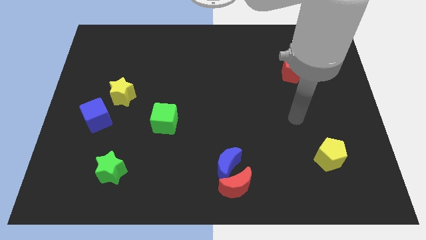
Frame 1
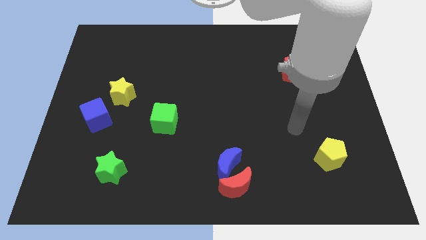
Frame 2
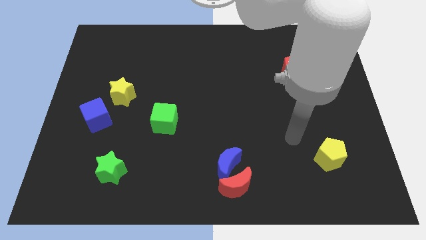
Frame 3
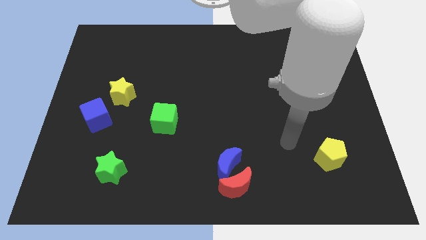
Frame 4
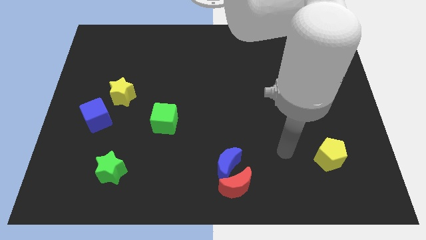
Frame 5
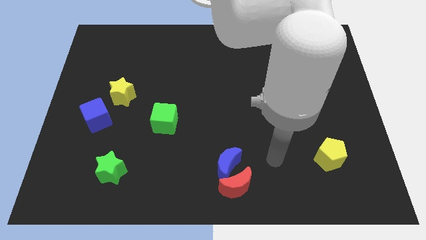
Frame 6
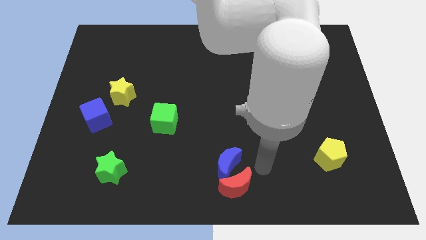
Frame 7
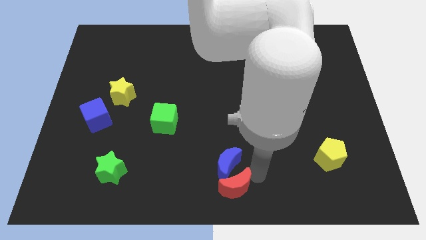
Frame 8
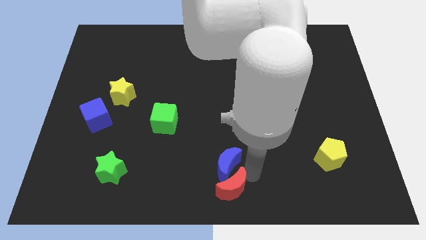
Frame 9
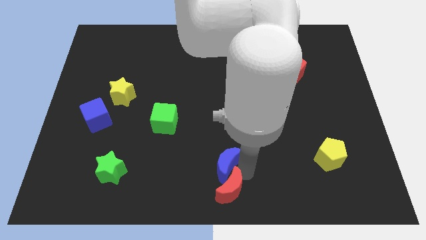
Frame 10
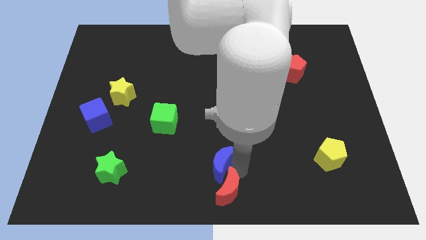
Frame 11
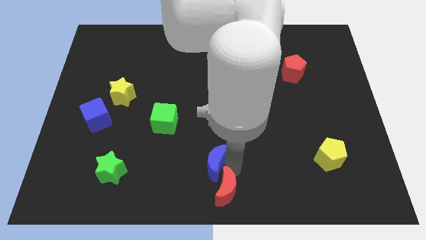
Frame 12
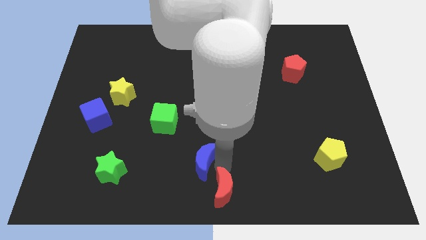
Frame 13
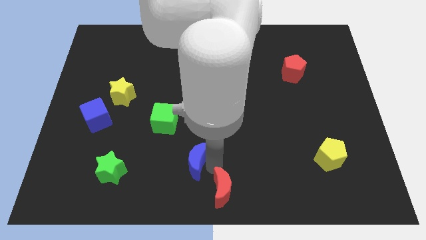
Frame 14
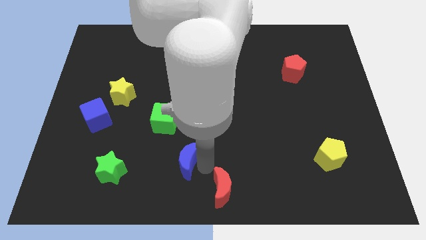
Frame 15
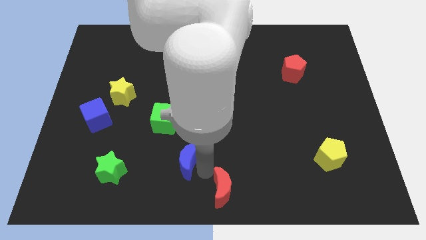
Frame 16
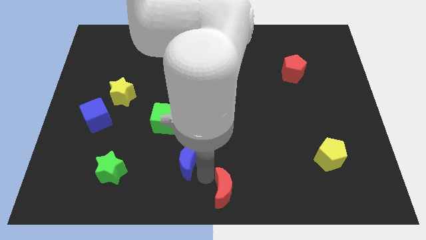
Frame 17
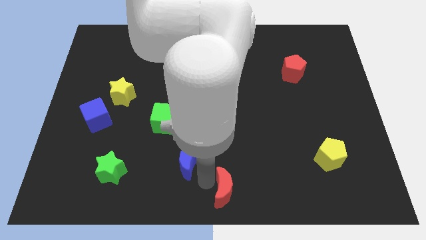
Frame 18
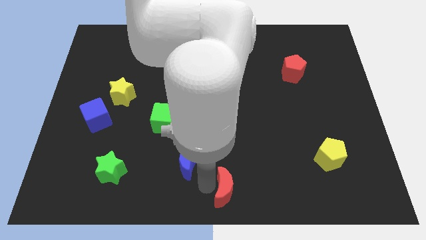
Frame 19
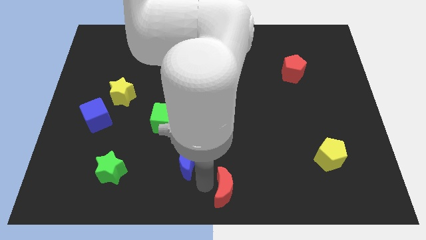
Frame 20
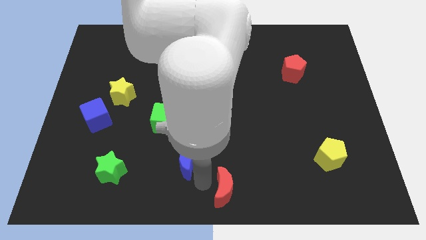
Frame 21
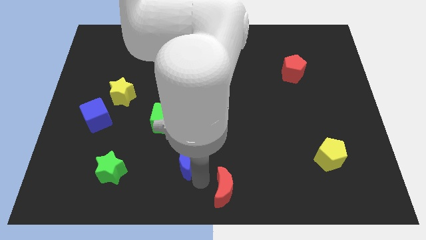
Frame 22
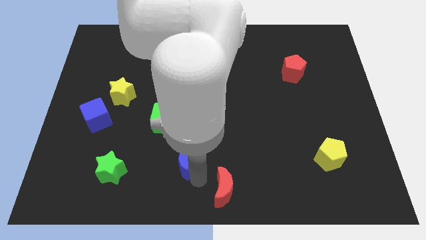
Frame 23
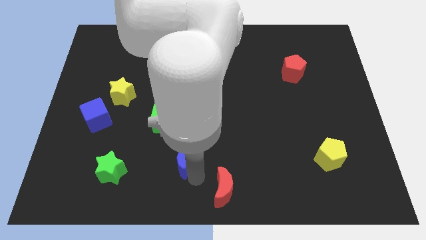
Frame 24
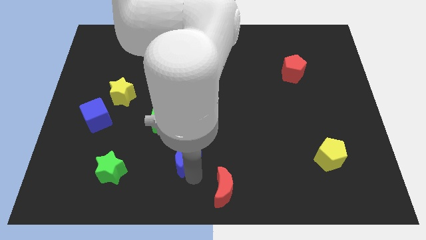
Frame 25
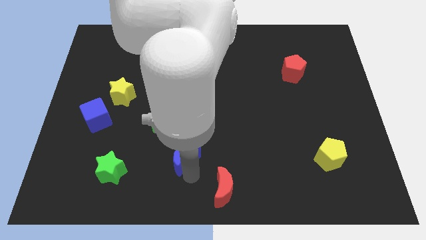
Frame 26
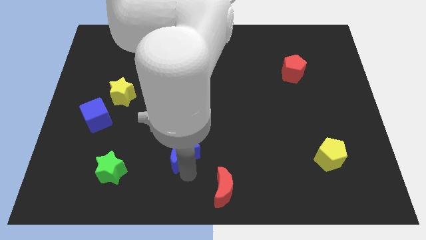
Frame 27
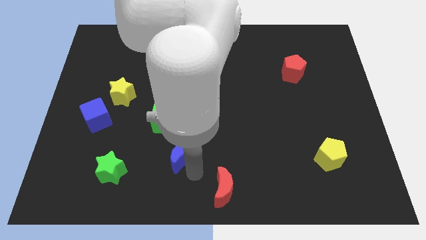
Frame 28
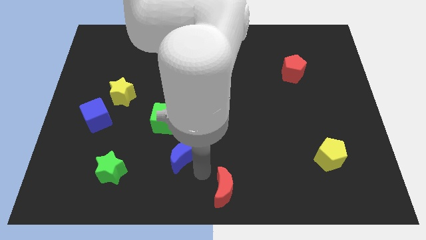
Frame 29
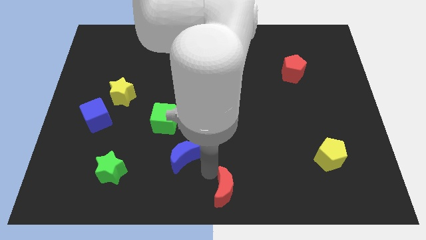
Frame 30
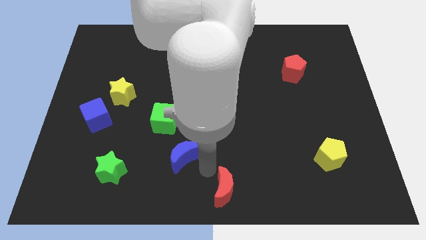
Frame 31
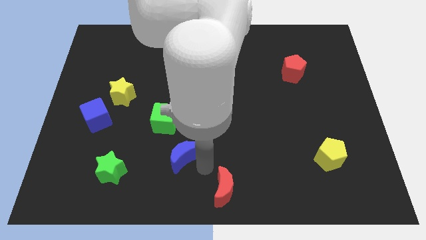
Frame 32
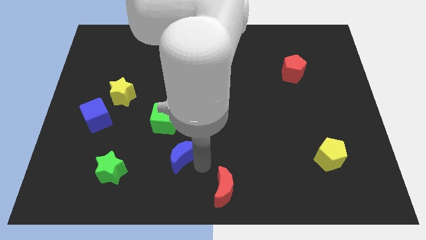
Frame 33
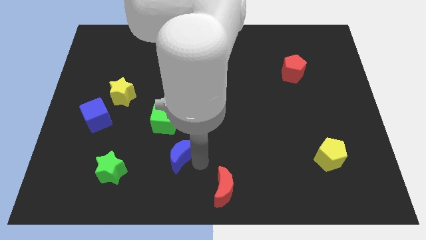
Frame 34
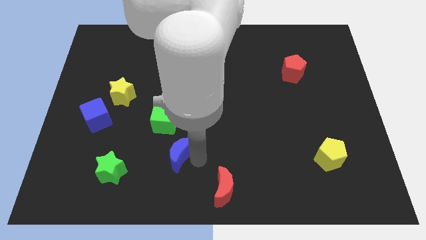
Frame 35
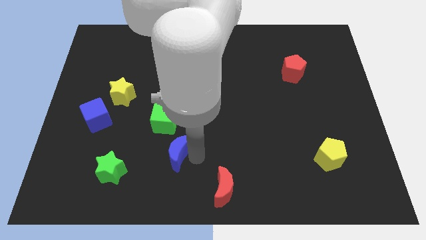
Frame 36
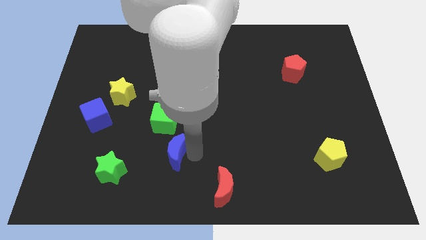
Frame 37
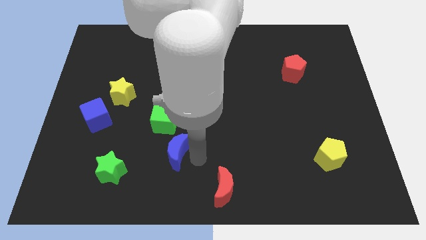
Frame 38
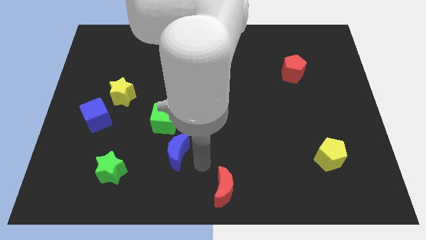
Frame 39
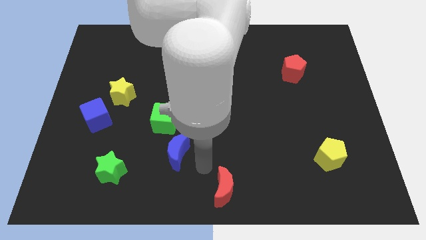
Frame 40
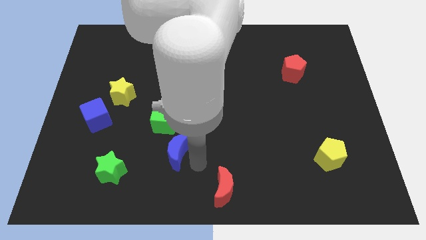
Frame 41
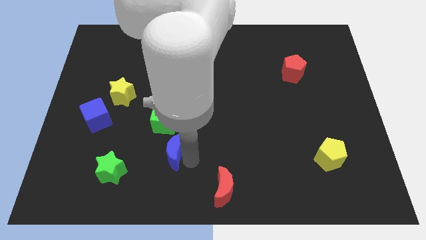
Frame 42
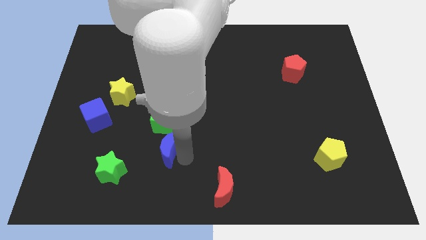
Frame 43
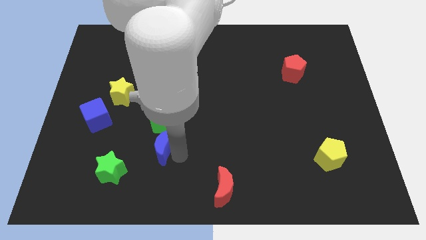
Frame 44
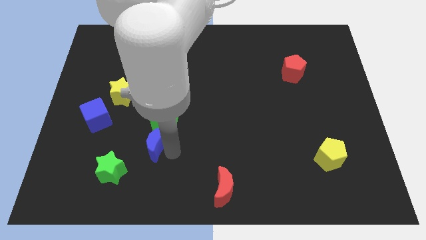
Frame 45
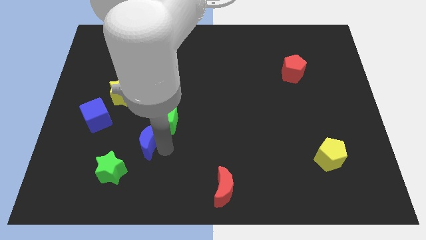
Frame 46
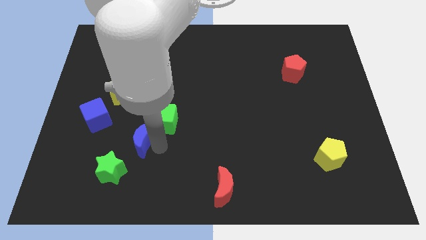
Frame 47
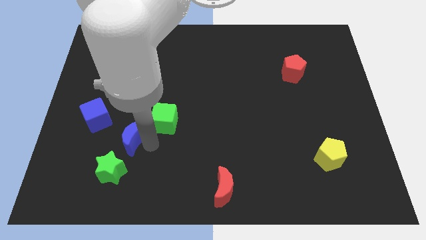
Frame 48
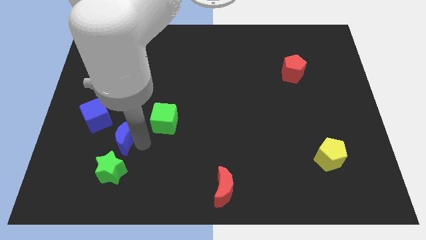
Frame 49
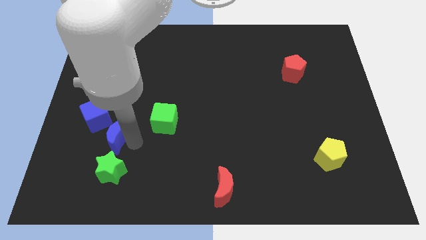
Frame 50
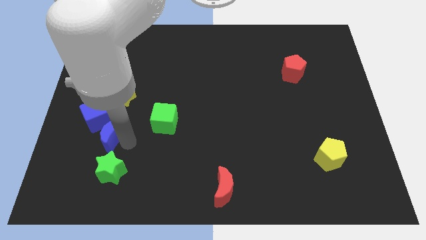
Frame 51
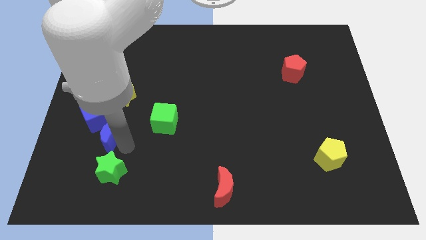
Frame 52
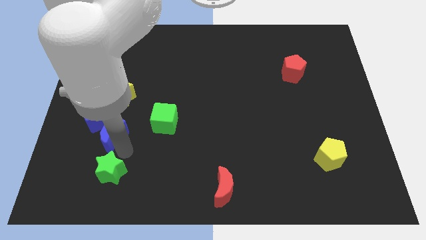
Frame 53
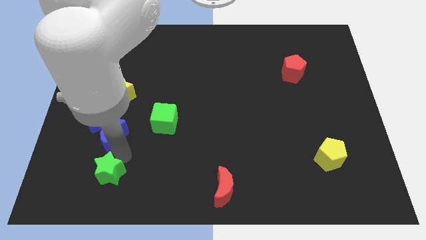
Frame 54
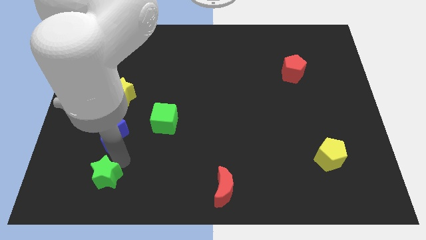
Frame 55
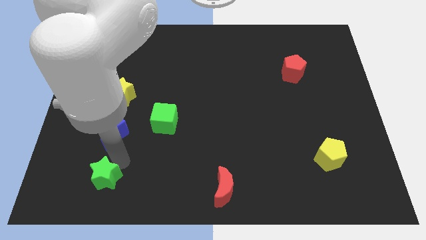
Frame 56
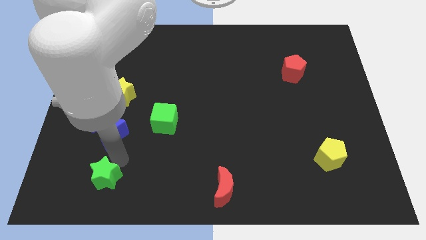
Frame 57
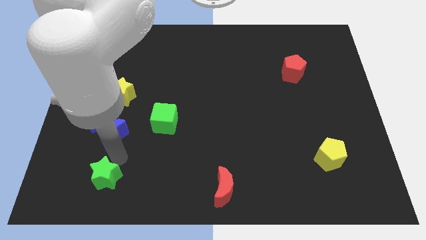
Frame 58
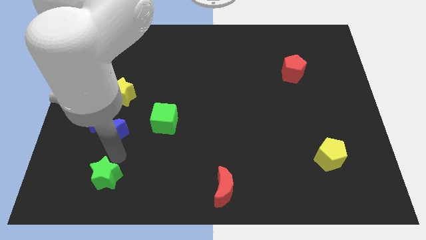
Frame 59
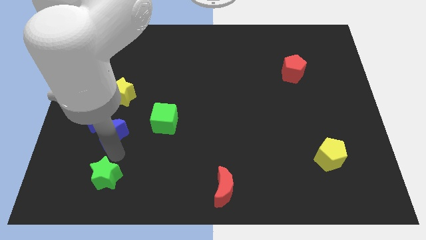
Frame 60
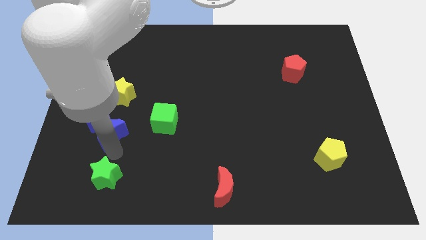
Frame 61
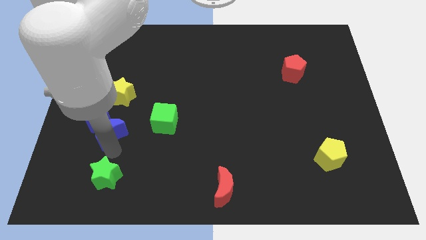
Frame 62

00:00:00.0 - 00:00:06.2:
put the blue moon to the blue cube

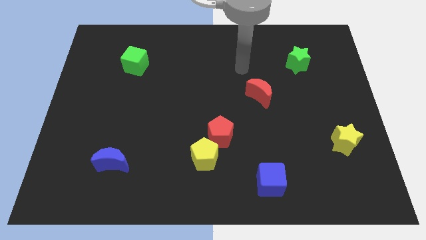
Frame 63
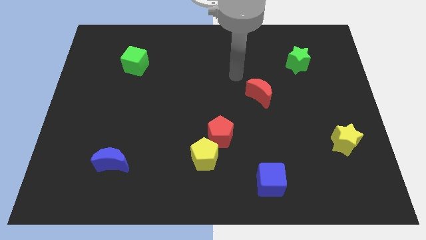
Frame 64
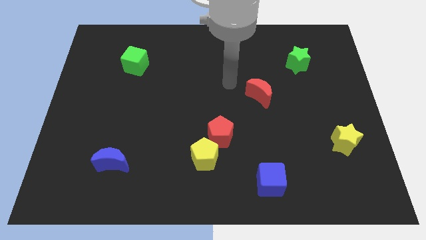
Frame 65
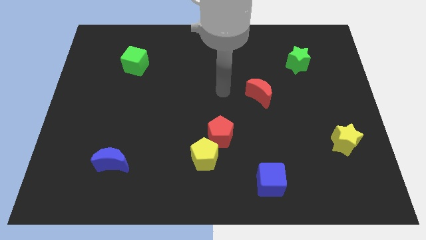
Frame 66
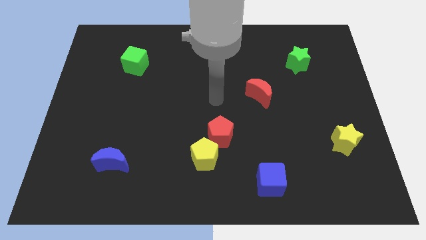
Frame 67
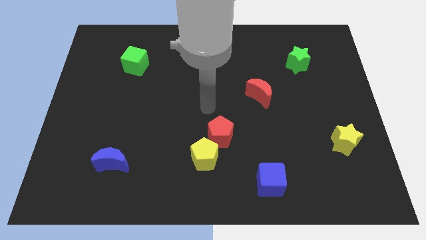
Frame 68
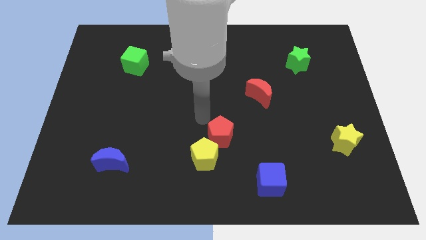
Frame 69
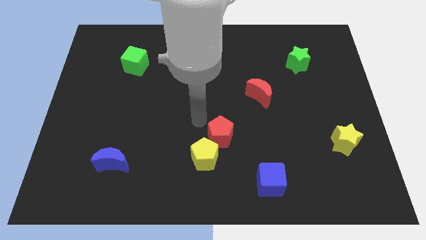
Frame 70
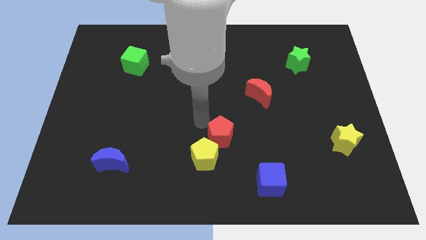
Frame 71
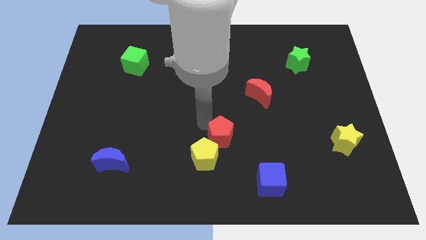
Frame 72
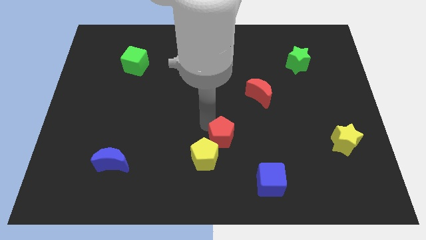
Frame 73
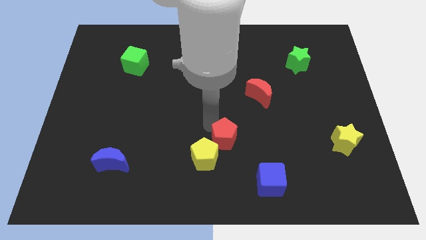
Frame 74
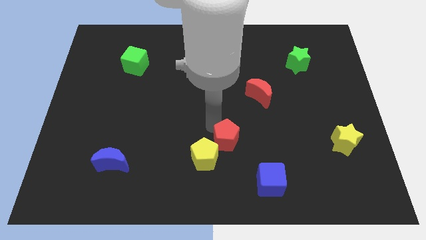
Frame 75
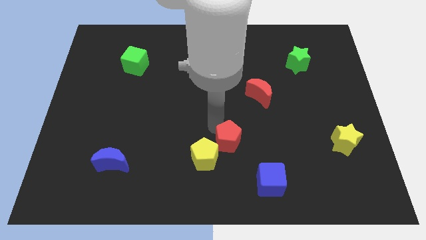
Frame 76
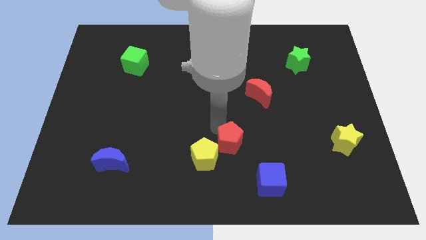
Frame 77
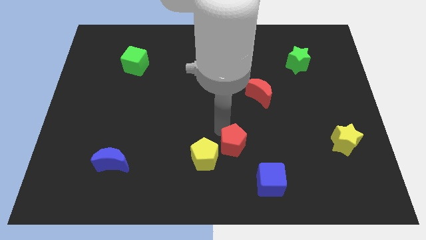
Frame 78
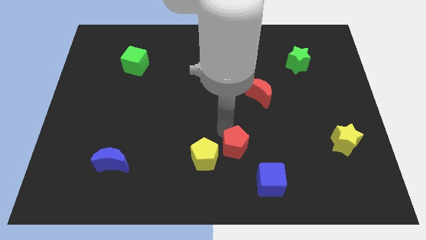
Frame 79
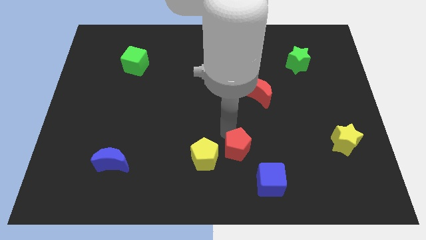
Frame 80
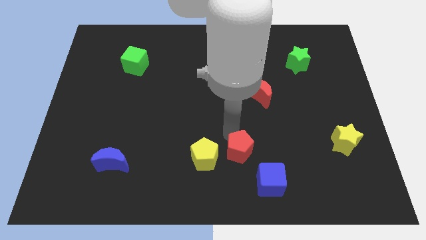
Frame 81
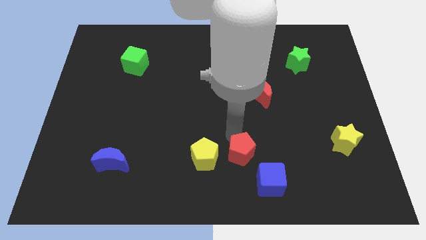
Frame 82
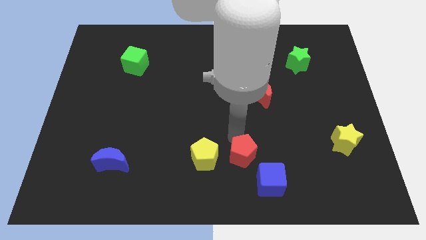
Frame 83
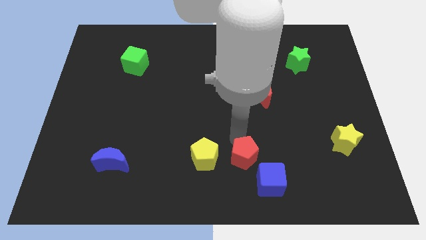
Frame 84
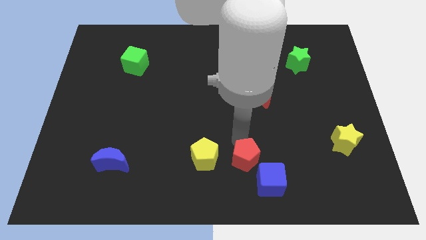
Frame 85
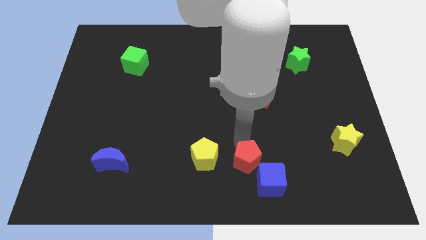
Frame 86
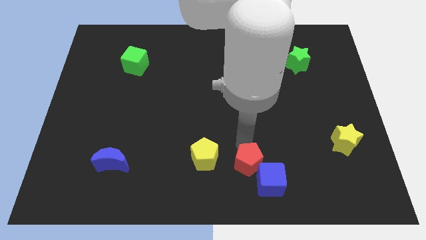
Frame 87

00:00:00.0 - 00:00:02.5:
slide the red pentagon next to the blue cube
